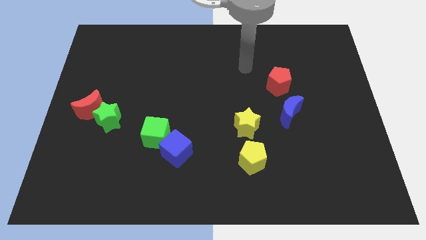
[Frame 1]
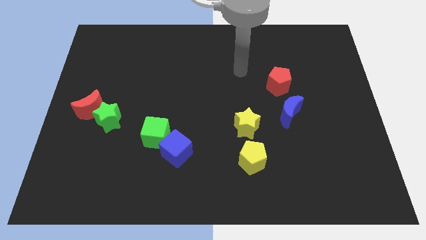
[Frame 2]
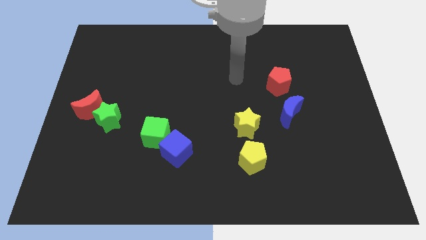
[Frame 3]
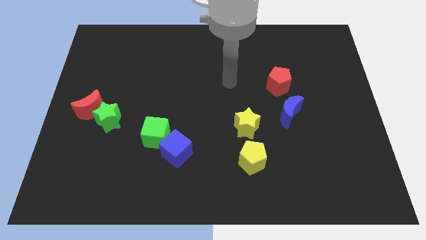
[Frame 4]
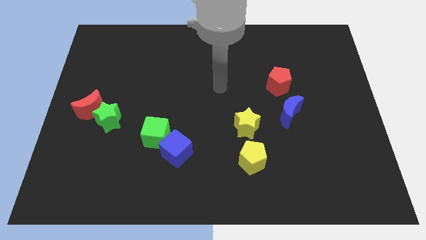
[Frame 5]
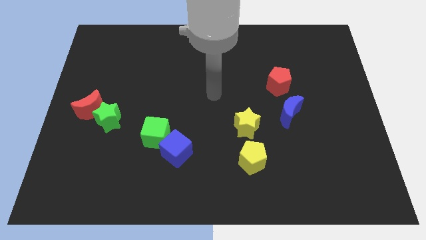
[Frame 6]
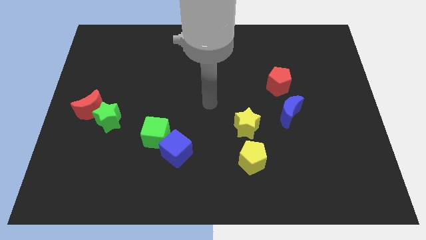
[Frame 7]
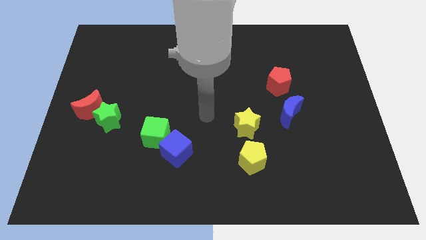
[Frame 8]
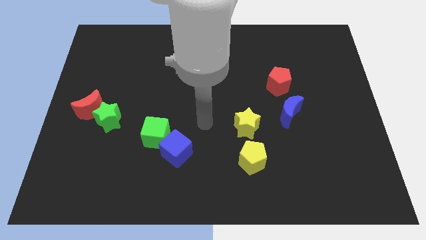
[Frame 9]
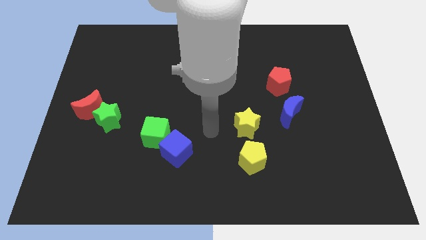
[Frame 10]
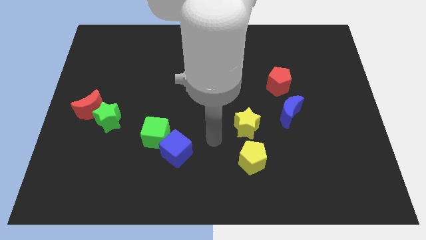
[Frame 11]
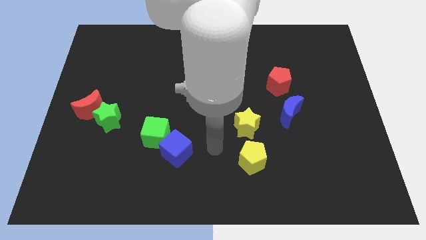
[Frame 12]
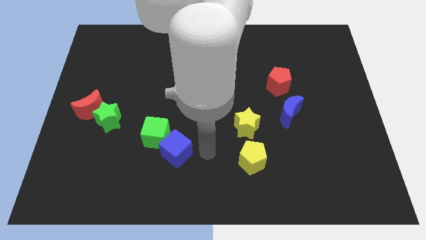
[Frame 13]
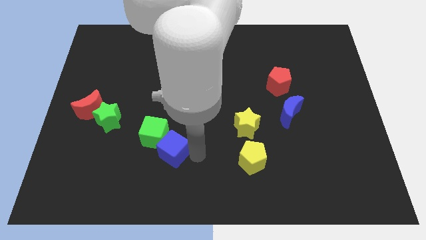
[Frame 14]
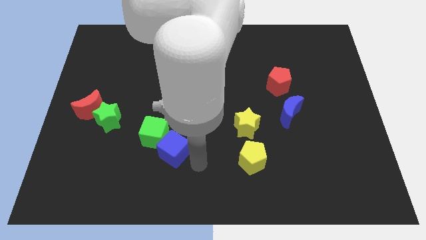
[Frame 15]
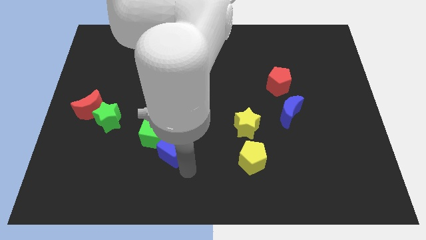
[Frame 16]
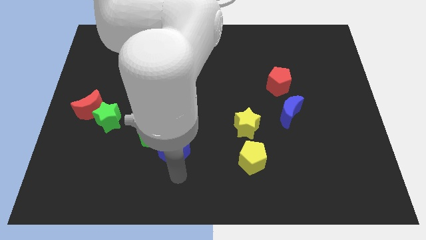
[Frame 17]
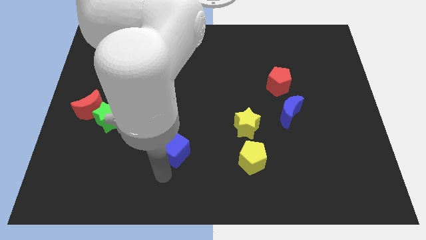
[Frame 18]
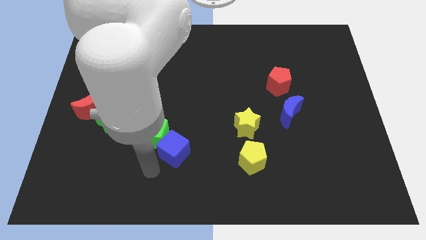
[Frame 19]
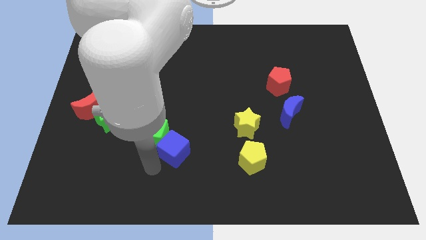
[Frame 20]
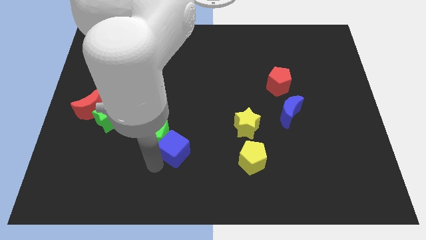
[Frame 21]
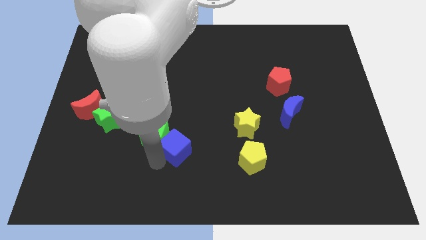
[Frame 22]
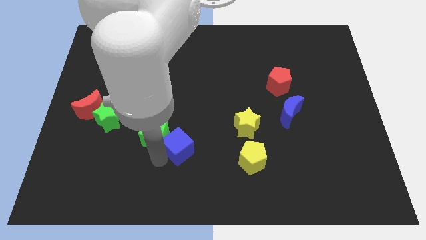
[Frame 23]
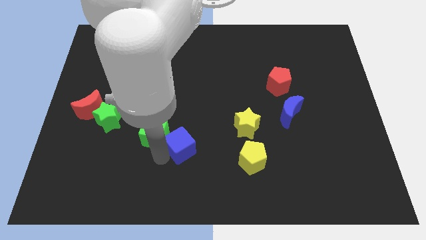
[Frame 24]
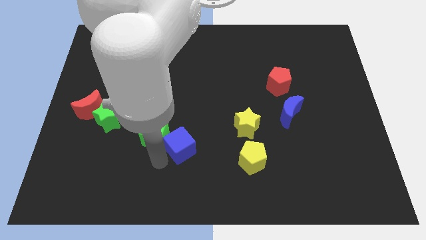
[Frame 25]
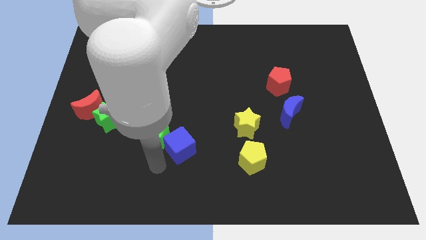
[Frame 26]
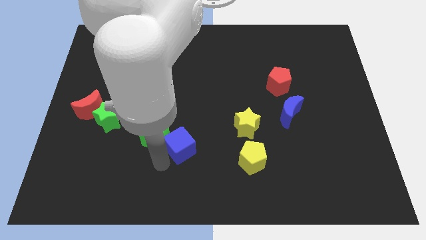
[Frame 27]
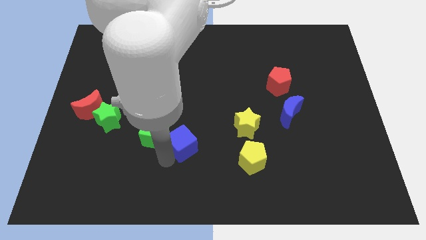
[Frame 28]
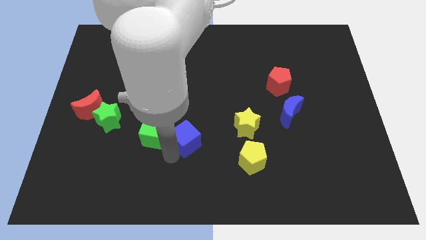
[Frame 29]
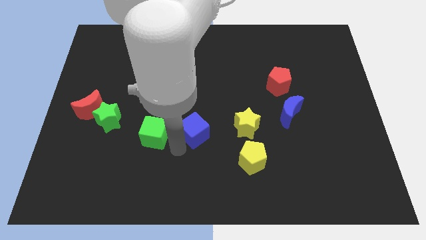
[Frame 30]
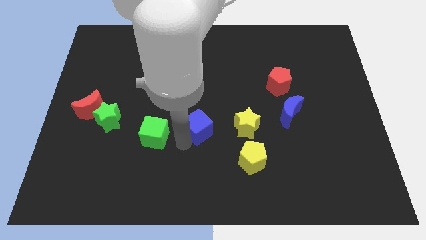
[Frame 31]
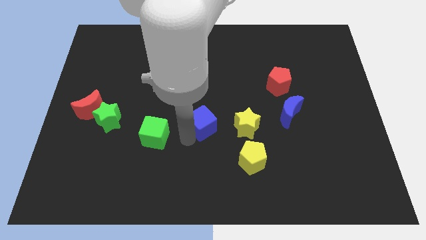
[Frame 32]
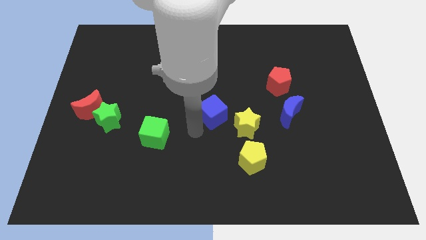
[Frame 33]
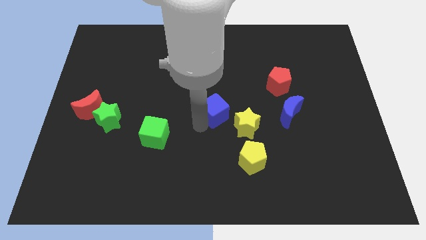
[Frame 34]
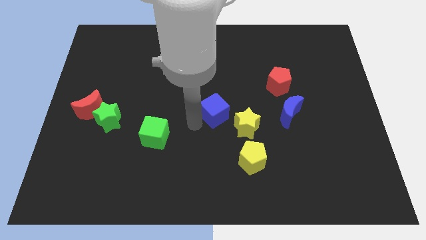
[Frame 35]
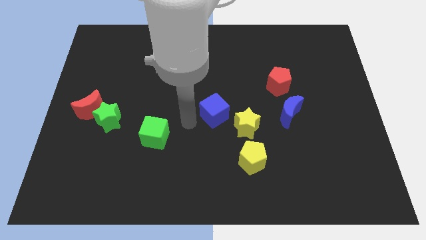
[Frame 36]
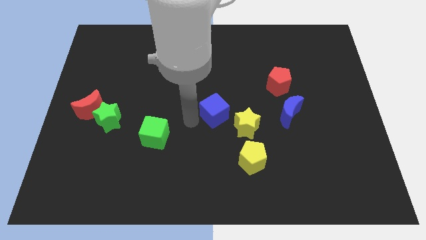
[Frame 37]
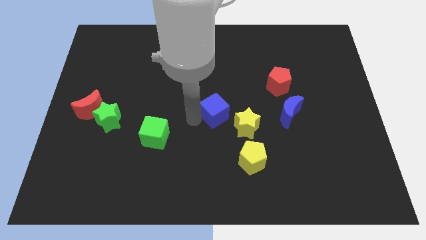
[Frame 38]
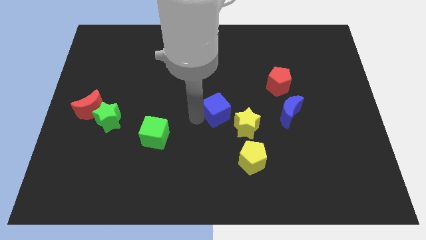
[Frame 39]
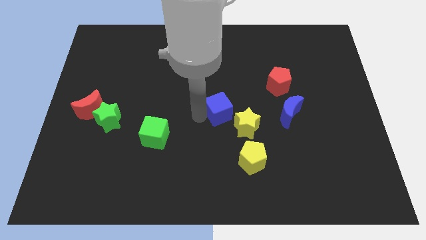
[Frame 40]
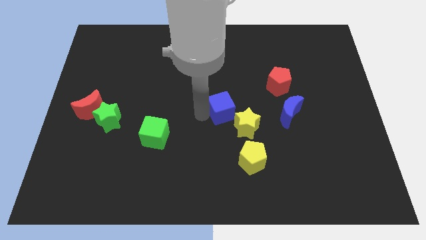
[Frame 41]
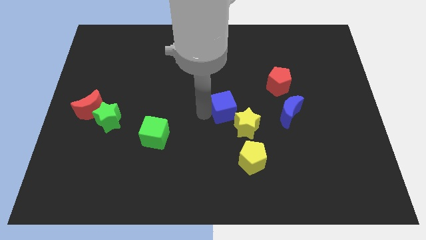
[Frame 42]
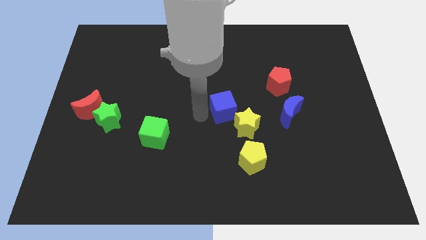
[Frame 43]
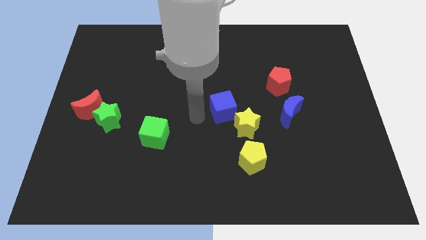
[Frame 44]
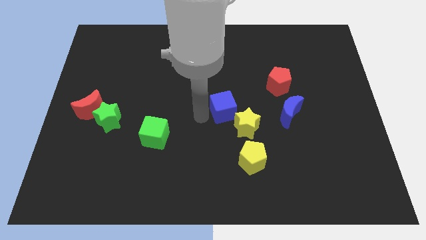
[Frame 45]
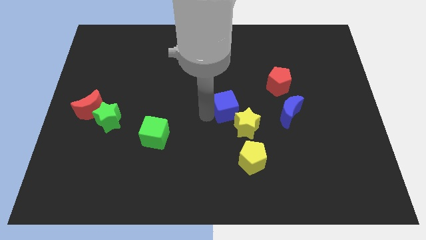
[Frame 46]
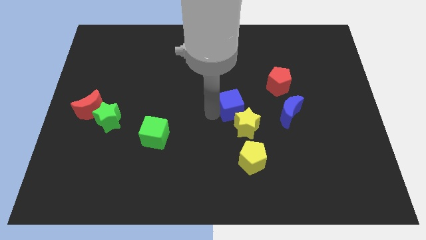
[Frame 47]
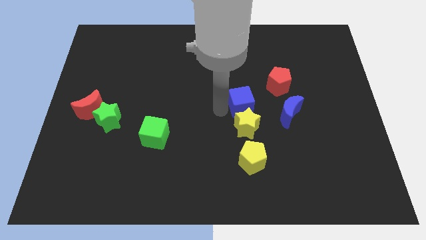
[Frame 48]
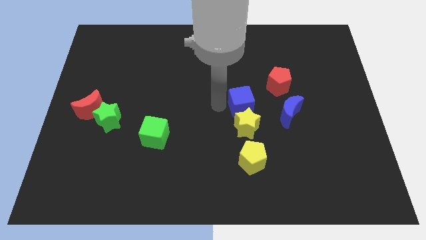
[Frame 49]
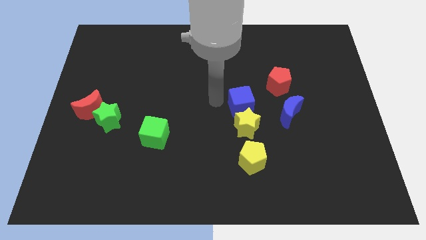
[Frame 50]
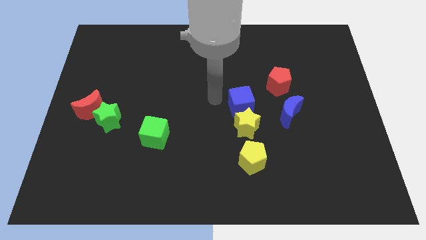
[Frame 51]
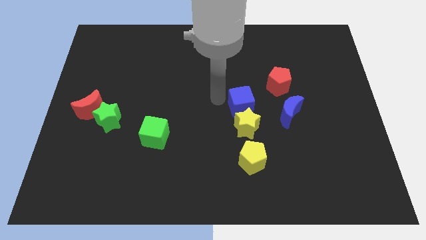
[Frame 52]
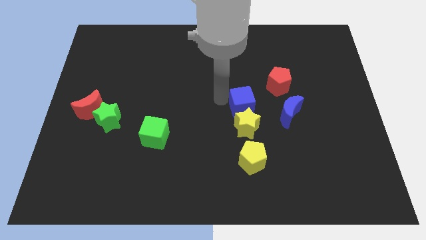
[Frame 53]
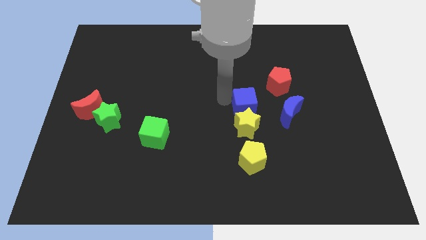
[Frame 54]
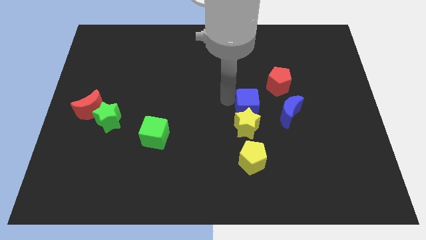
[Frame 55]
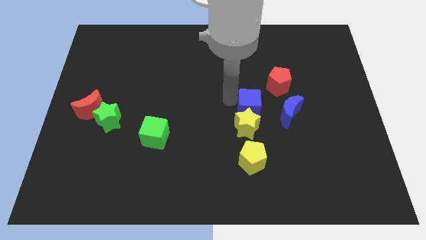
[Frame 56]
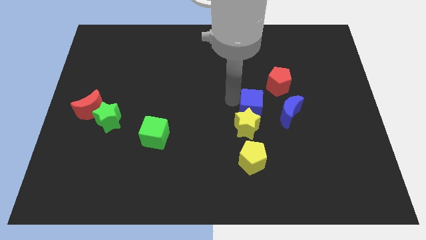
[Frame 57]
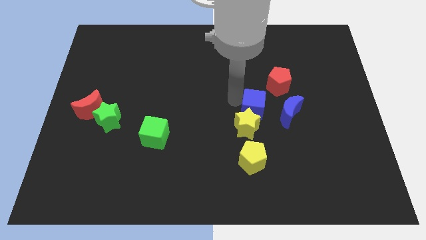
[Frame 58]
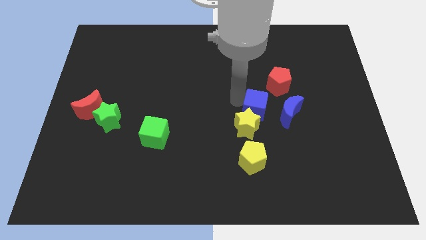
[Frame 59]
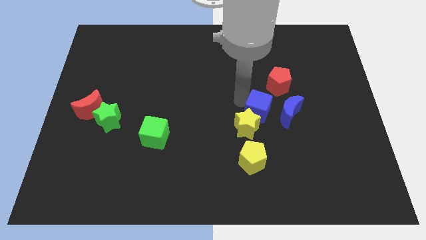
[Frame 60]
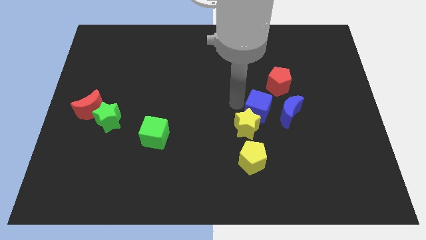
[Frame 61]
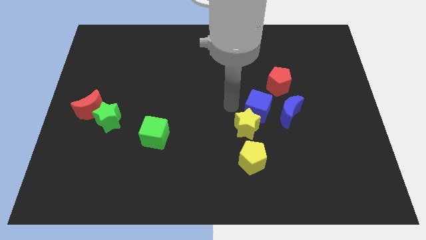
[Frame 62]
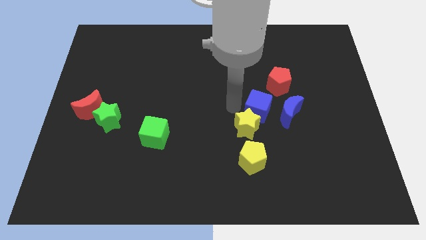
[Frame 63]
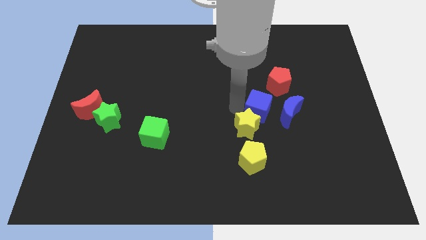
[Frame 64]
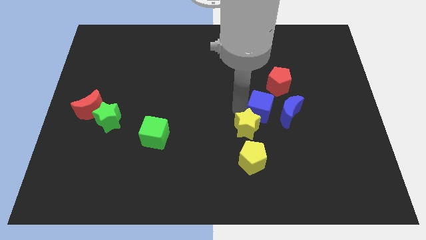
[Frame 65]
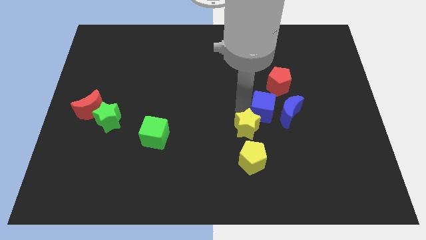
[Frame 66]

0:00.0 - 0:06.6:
slide the blue cube close to the blue moon
